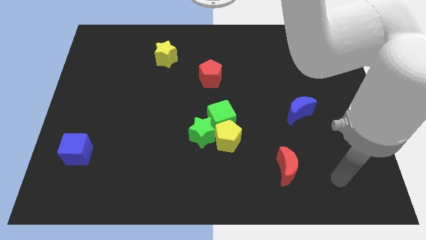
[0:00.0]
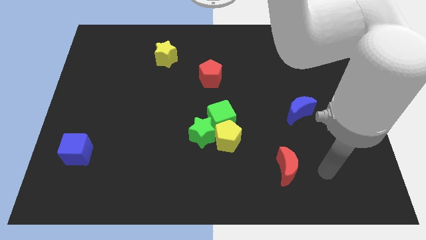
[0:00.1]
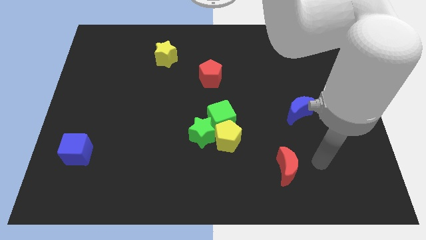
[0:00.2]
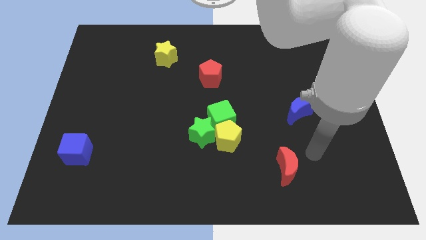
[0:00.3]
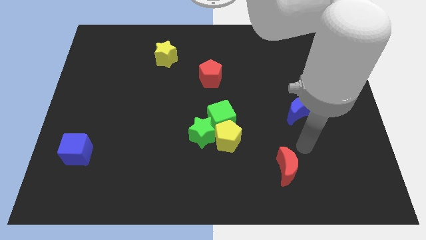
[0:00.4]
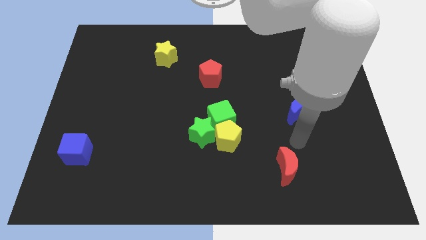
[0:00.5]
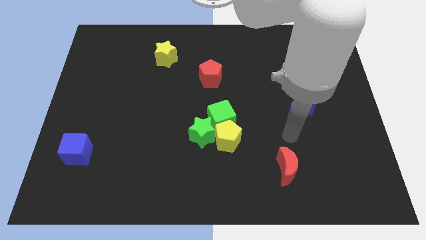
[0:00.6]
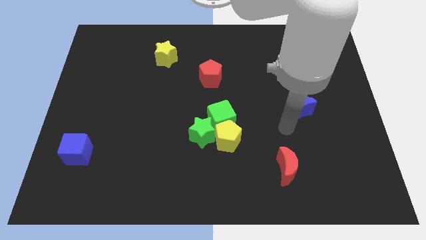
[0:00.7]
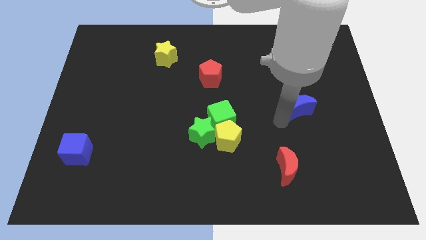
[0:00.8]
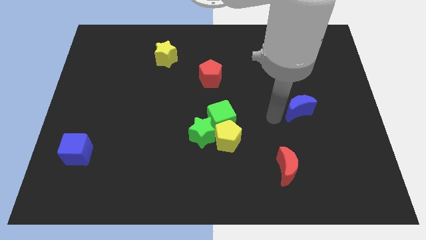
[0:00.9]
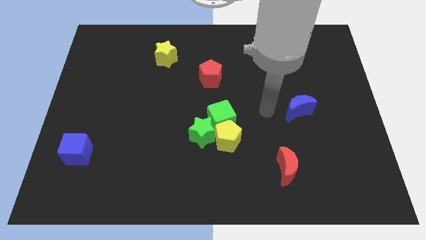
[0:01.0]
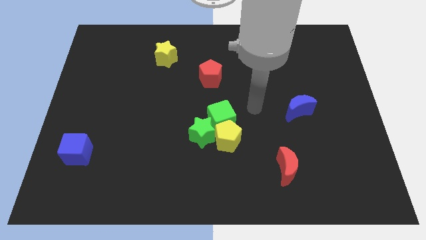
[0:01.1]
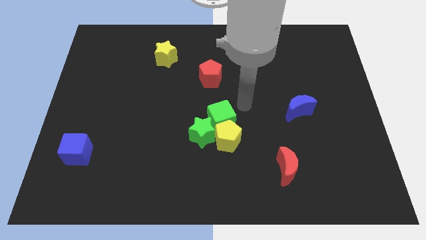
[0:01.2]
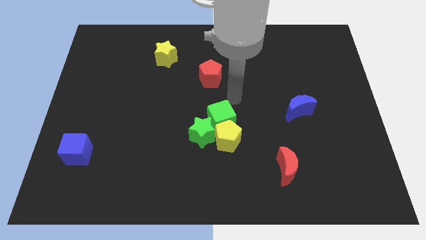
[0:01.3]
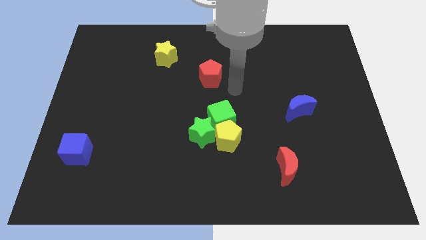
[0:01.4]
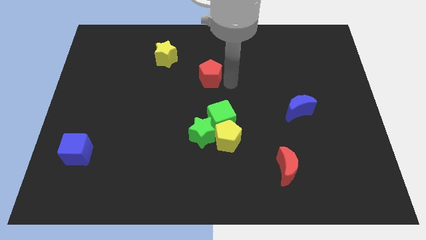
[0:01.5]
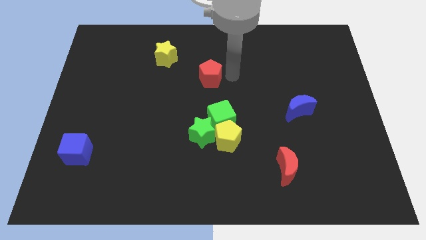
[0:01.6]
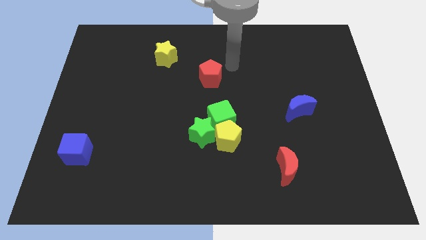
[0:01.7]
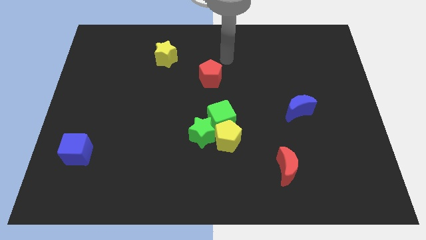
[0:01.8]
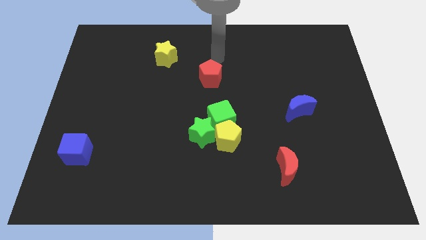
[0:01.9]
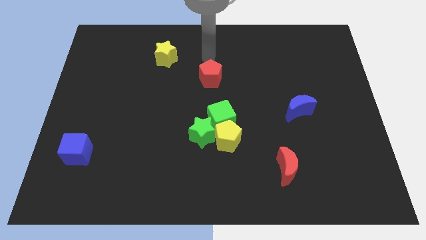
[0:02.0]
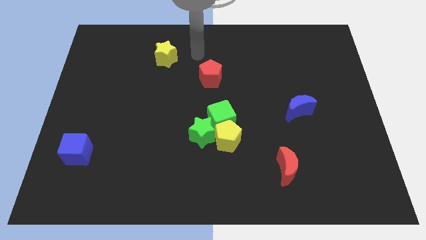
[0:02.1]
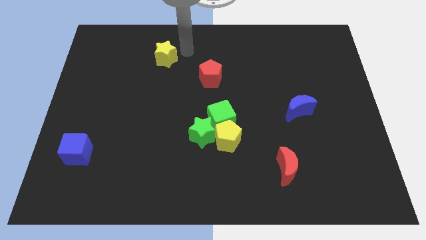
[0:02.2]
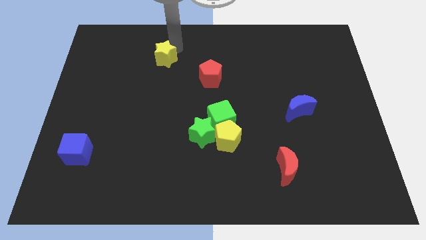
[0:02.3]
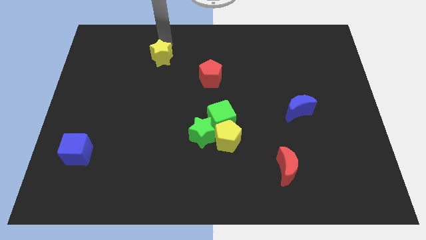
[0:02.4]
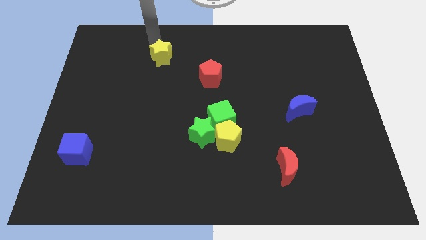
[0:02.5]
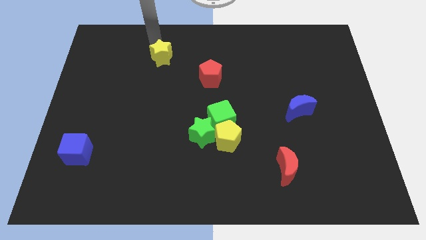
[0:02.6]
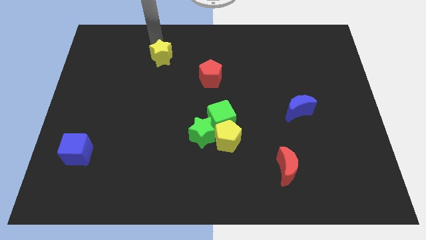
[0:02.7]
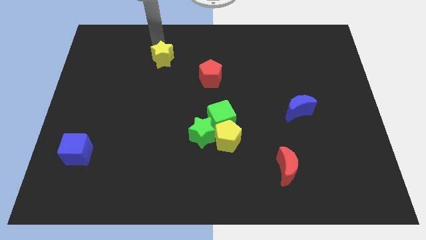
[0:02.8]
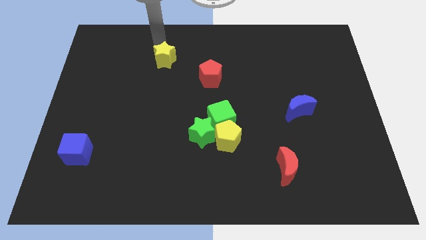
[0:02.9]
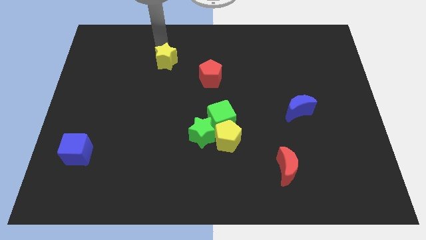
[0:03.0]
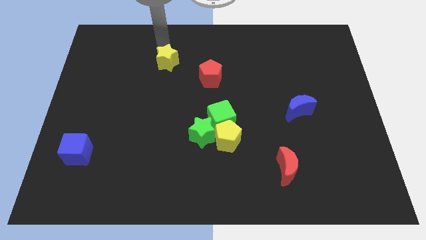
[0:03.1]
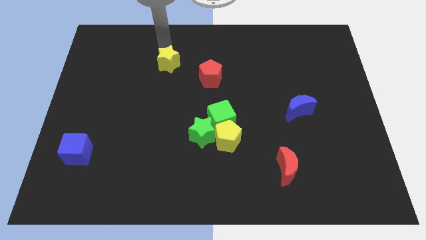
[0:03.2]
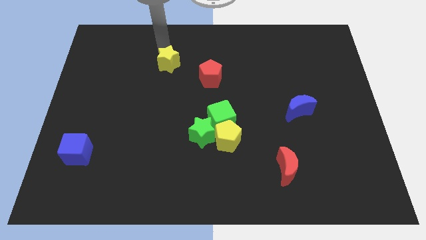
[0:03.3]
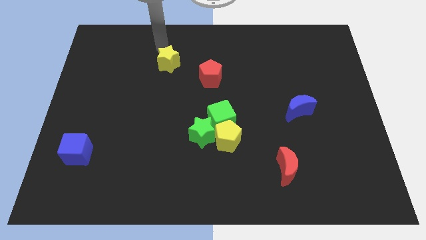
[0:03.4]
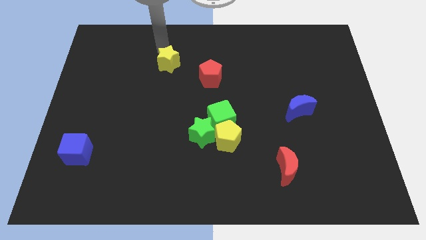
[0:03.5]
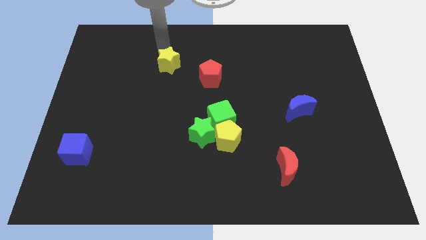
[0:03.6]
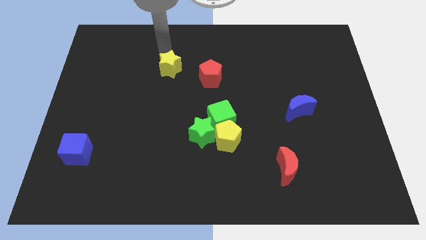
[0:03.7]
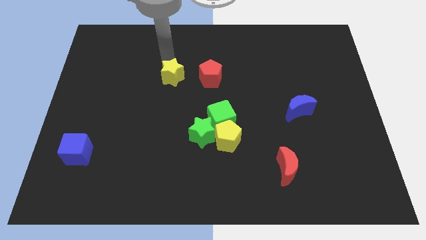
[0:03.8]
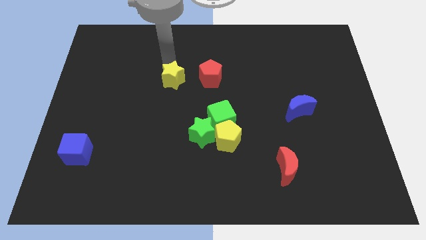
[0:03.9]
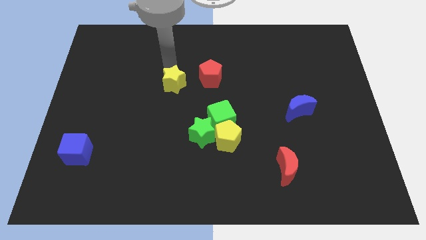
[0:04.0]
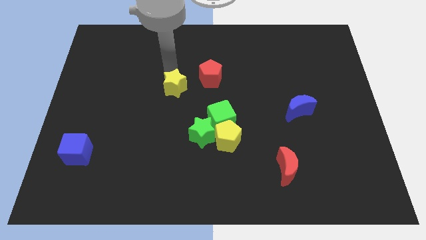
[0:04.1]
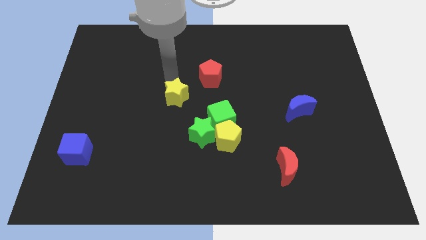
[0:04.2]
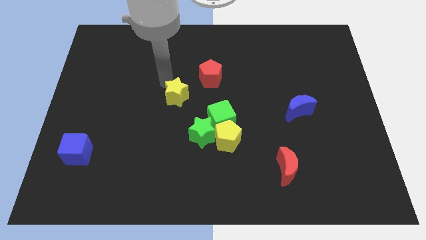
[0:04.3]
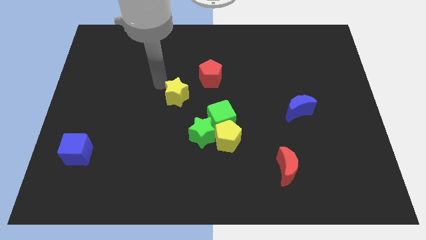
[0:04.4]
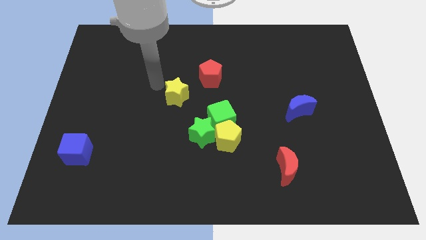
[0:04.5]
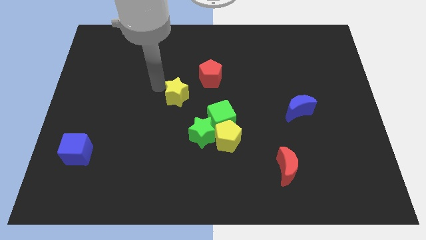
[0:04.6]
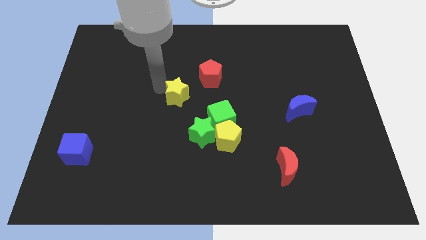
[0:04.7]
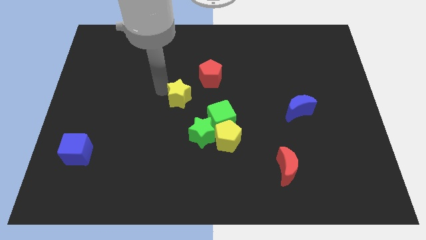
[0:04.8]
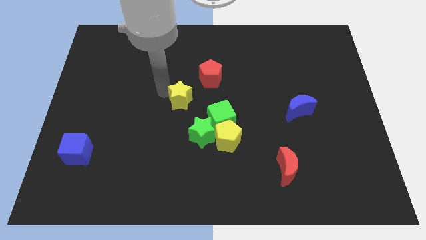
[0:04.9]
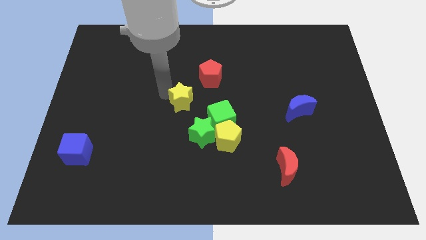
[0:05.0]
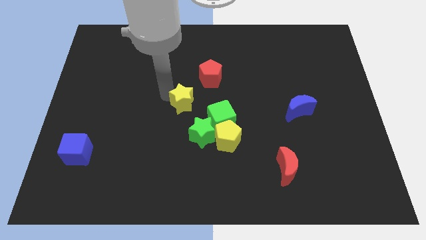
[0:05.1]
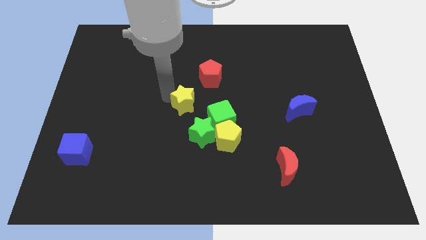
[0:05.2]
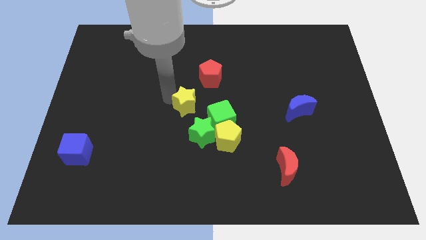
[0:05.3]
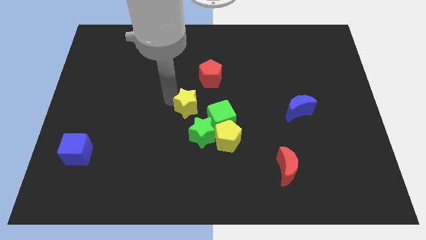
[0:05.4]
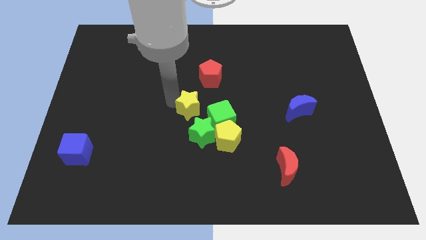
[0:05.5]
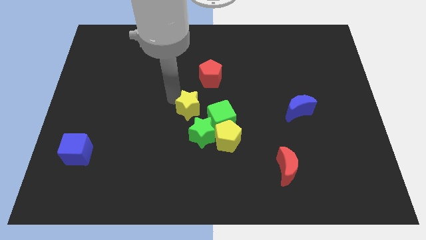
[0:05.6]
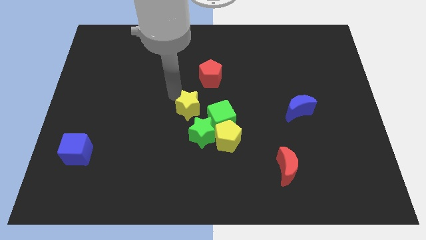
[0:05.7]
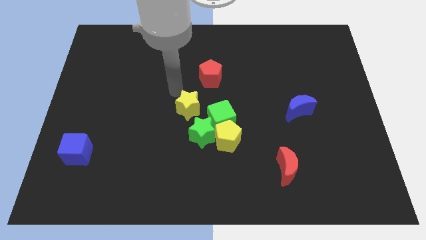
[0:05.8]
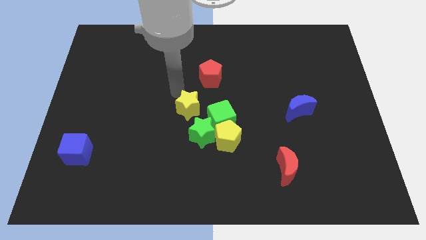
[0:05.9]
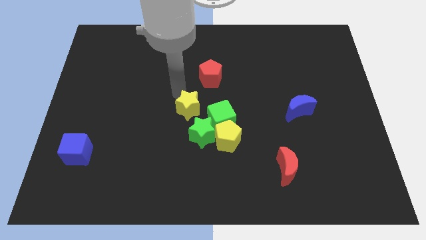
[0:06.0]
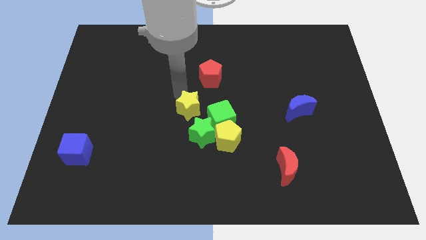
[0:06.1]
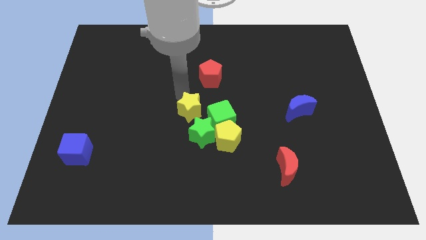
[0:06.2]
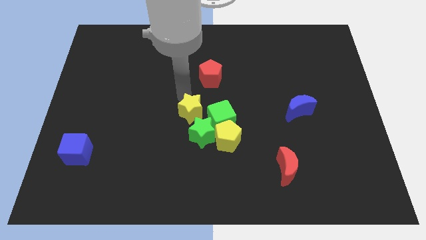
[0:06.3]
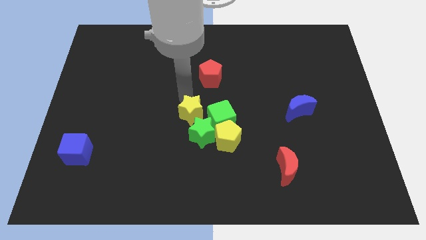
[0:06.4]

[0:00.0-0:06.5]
move the yellow star towards the green star

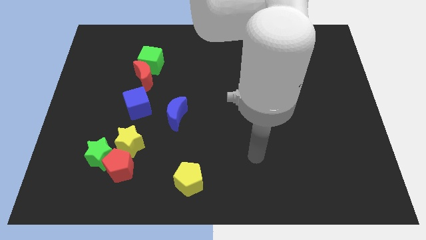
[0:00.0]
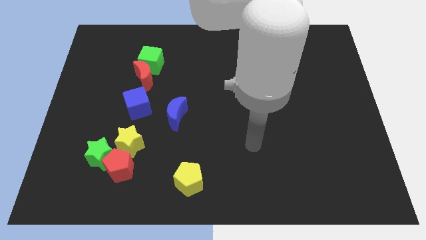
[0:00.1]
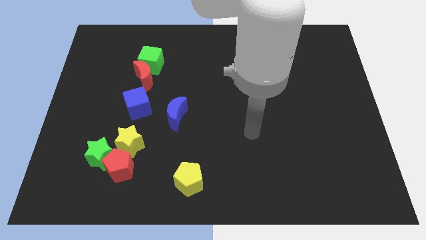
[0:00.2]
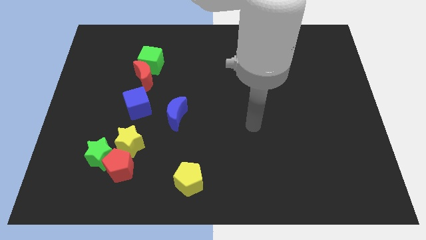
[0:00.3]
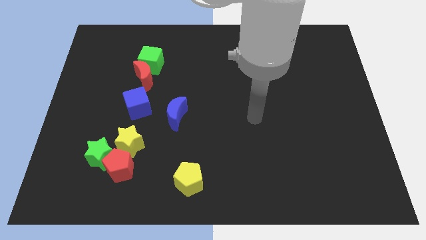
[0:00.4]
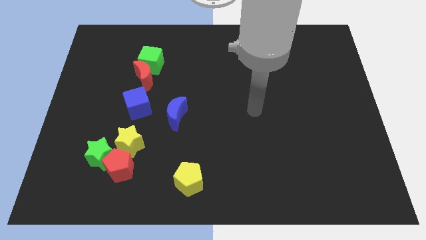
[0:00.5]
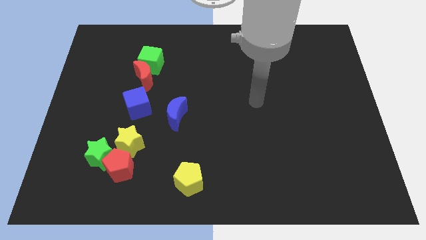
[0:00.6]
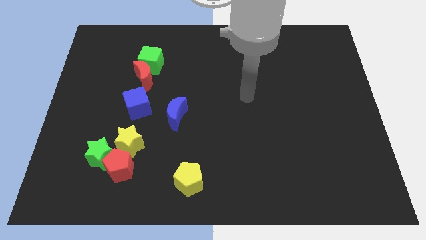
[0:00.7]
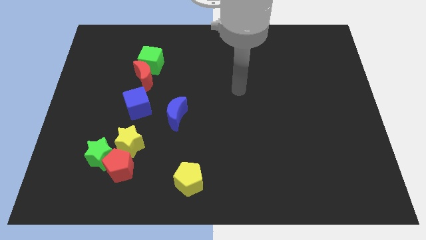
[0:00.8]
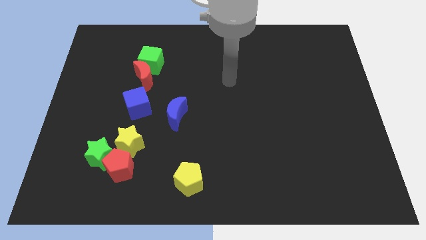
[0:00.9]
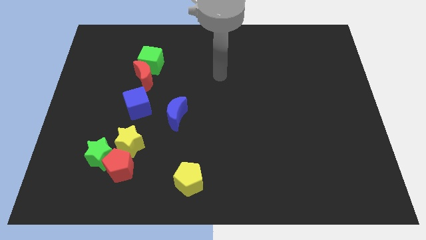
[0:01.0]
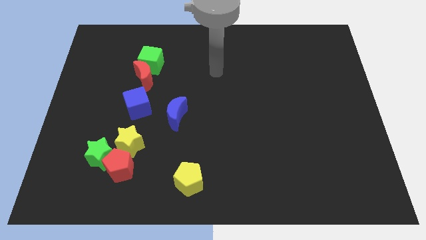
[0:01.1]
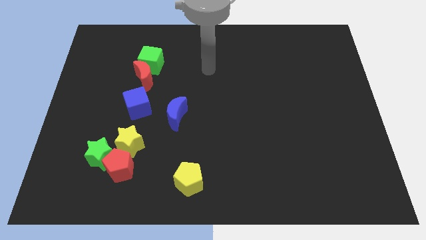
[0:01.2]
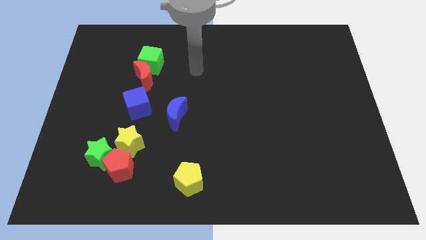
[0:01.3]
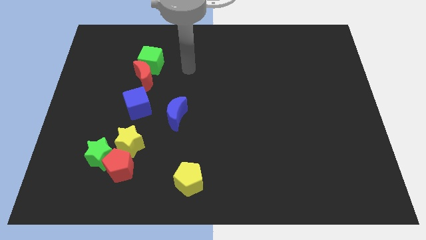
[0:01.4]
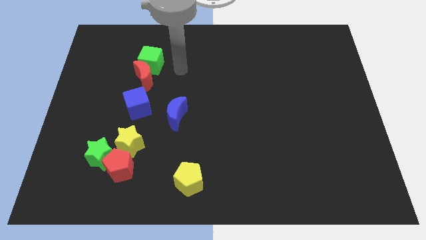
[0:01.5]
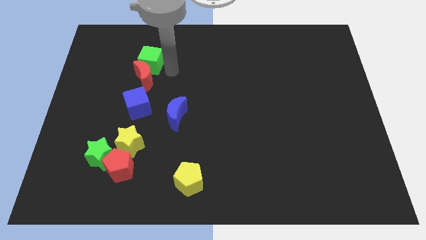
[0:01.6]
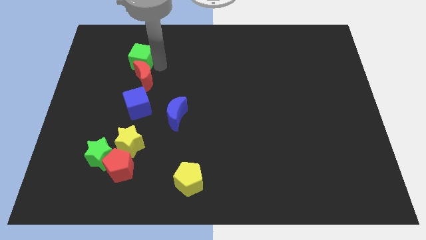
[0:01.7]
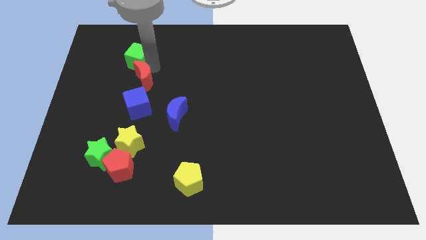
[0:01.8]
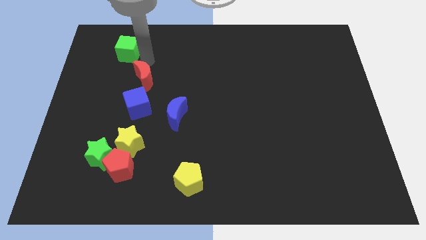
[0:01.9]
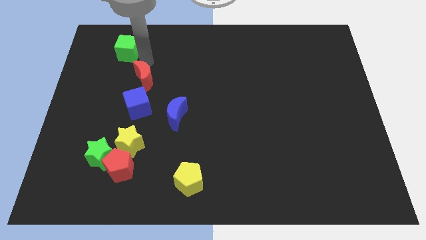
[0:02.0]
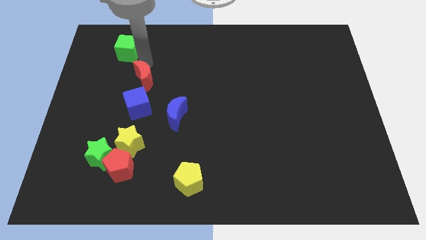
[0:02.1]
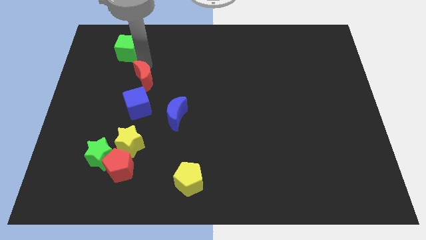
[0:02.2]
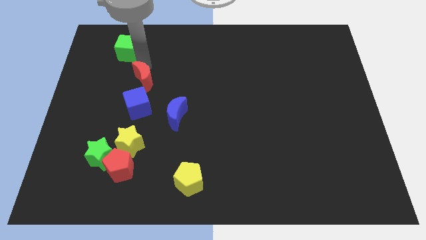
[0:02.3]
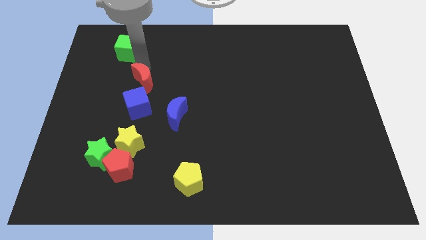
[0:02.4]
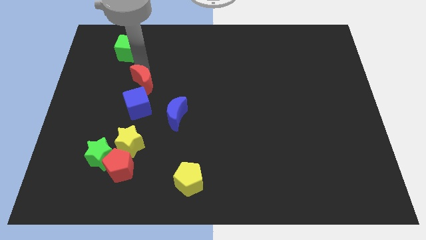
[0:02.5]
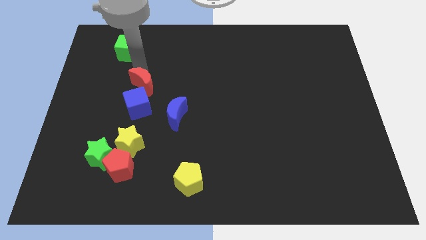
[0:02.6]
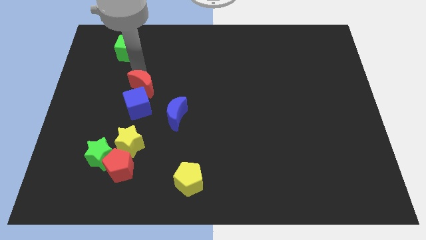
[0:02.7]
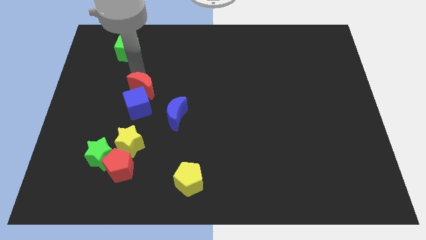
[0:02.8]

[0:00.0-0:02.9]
slide the red moon towards the blue cube
